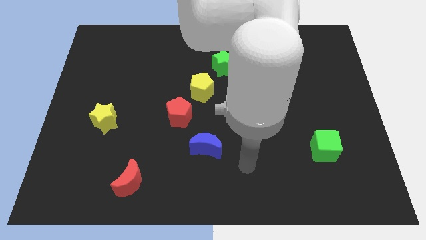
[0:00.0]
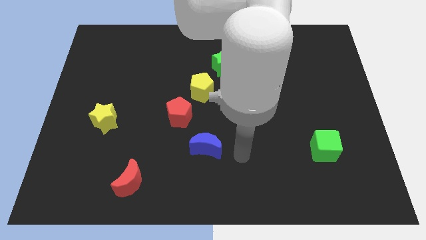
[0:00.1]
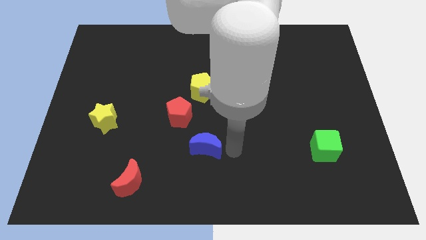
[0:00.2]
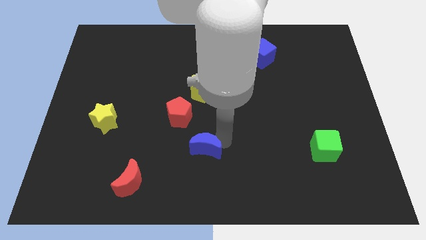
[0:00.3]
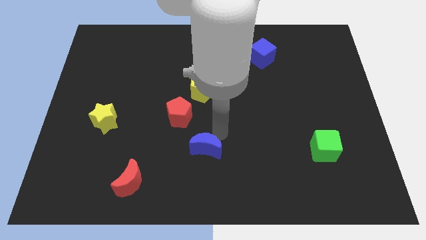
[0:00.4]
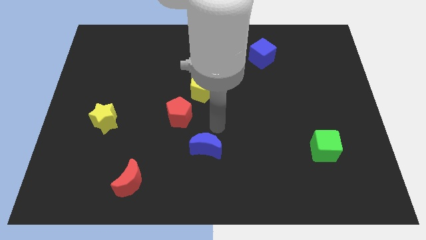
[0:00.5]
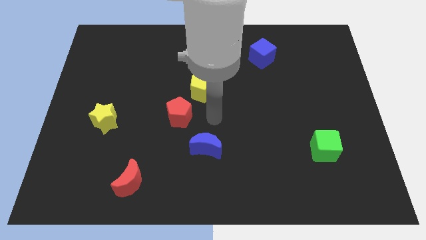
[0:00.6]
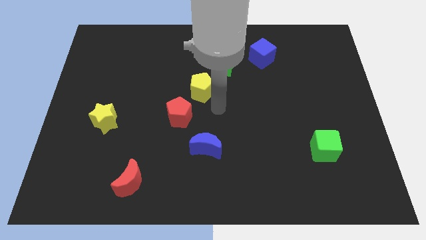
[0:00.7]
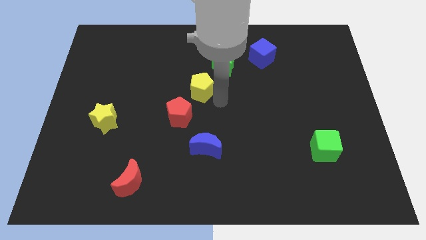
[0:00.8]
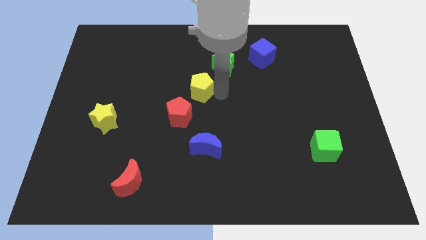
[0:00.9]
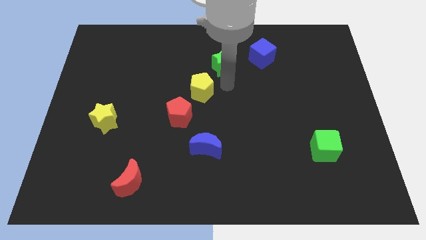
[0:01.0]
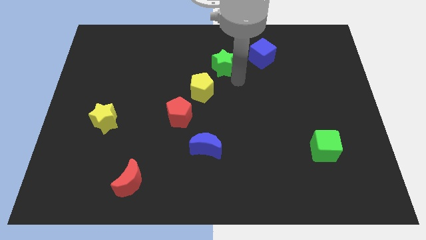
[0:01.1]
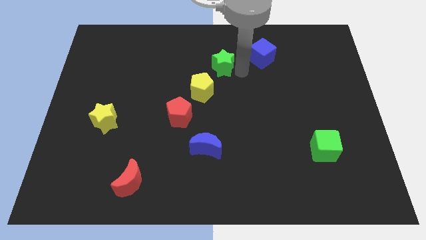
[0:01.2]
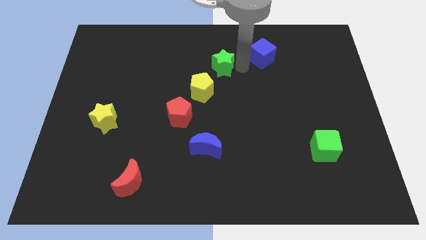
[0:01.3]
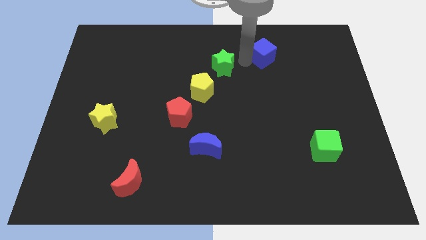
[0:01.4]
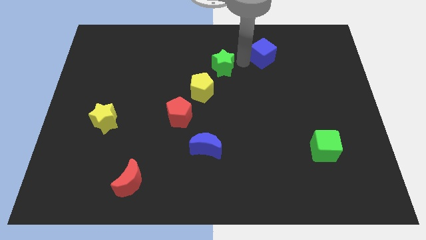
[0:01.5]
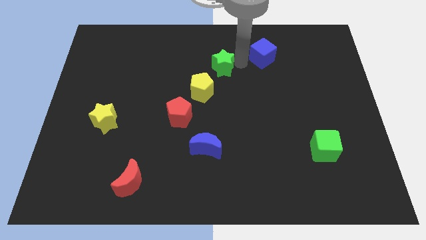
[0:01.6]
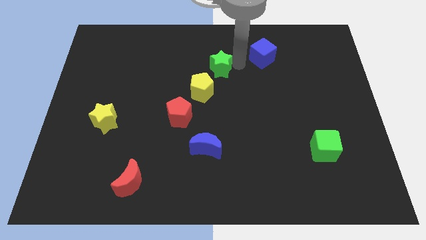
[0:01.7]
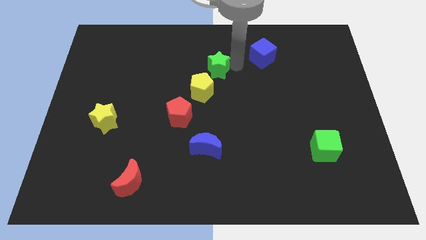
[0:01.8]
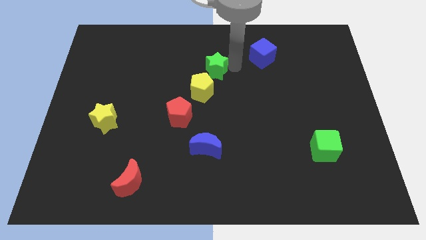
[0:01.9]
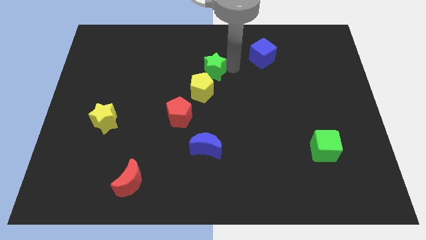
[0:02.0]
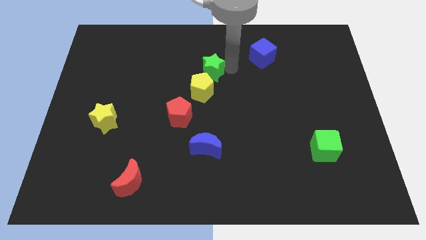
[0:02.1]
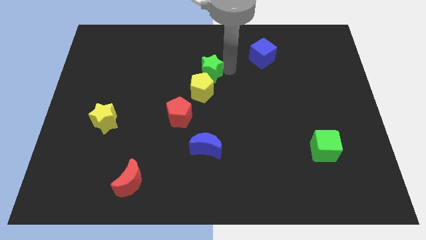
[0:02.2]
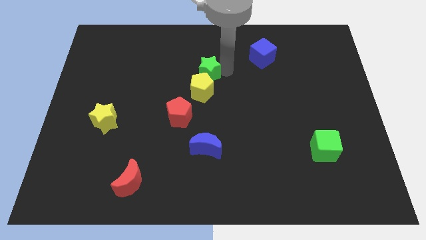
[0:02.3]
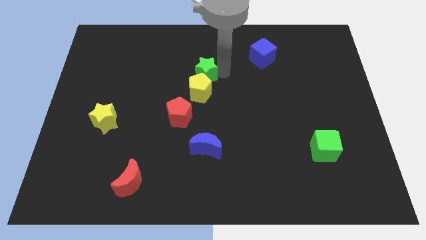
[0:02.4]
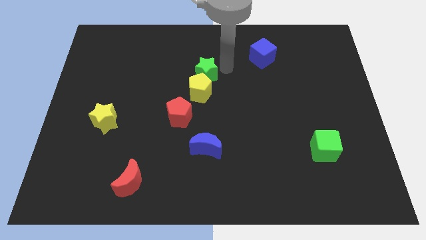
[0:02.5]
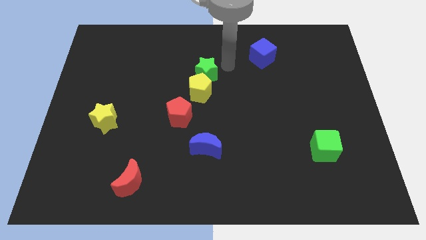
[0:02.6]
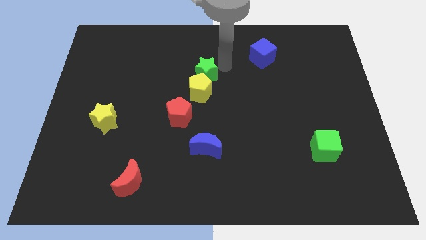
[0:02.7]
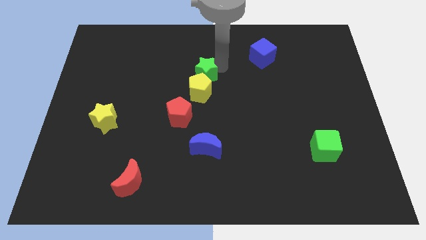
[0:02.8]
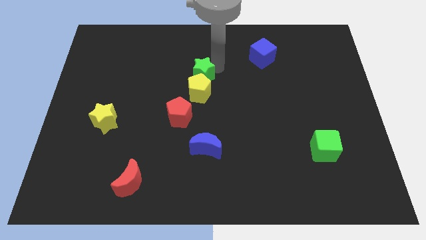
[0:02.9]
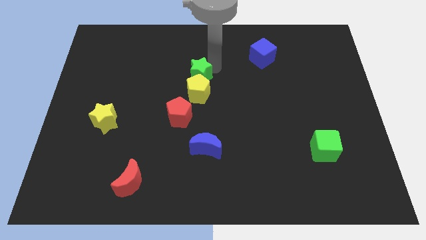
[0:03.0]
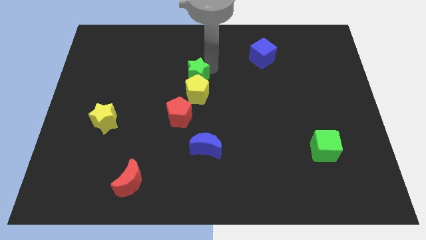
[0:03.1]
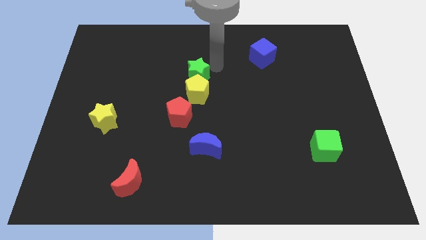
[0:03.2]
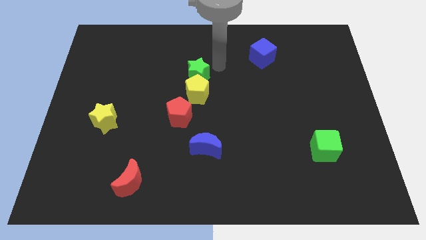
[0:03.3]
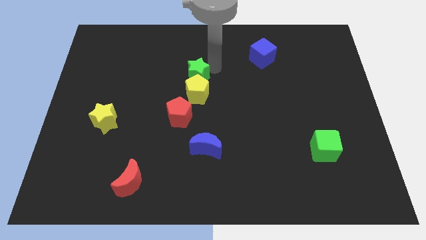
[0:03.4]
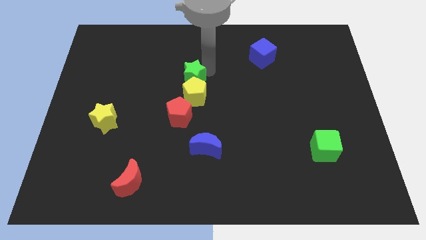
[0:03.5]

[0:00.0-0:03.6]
move the green star slightly down and to the left diagonally

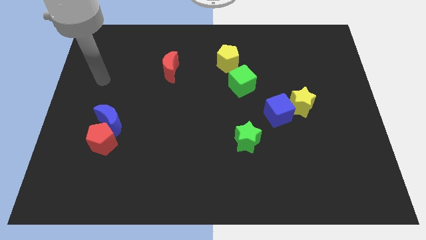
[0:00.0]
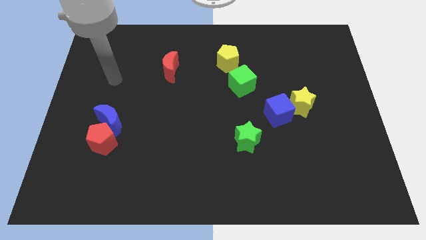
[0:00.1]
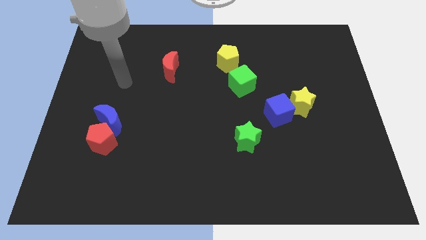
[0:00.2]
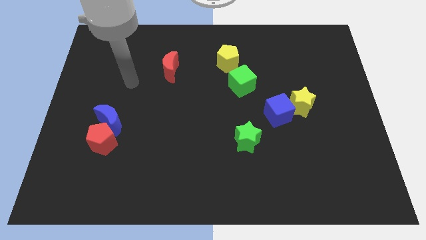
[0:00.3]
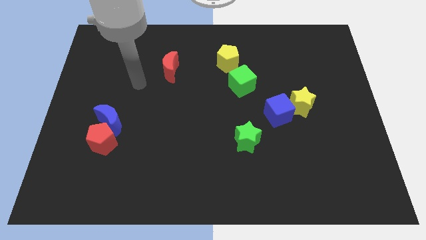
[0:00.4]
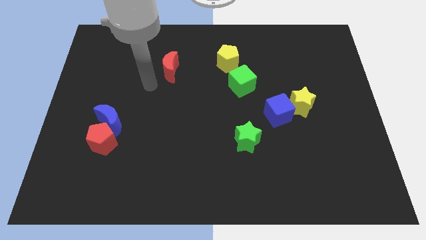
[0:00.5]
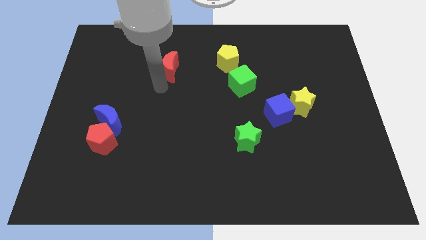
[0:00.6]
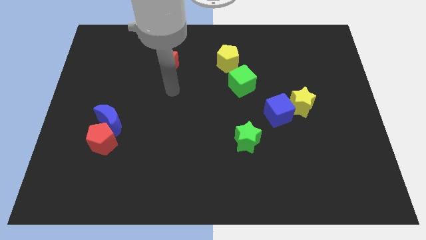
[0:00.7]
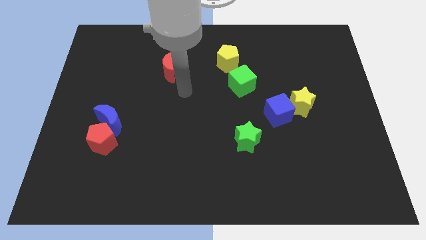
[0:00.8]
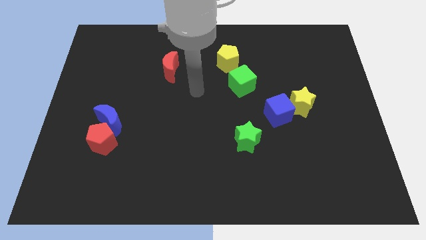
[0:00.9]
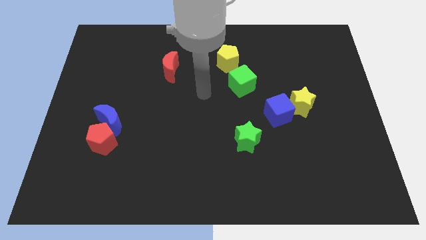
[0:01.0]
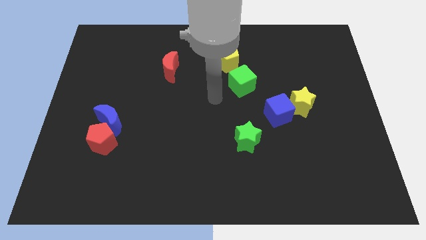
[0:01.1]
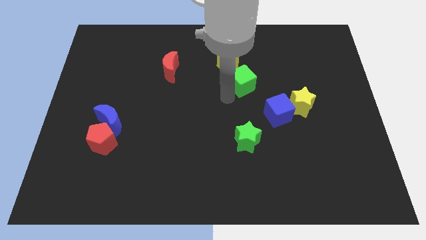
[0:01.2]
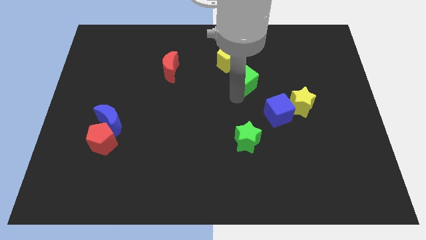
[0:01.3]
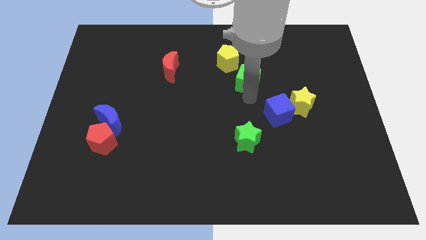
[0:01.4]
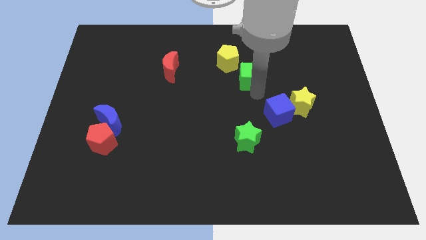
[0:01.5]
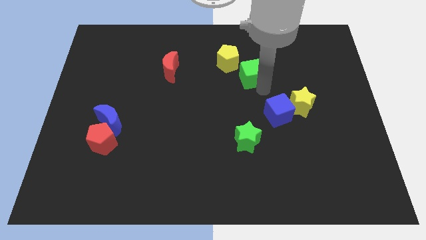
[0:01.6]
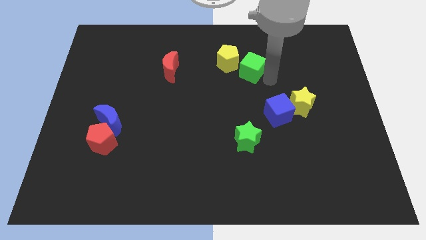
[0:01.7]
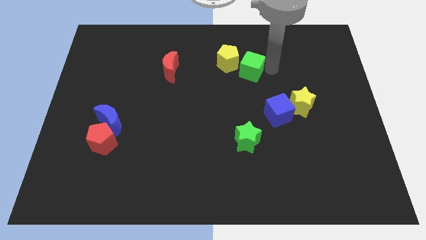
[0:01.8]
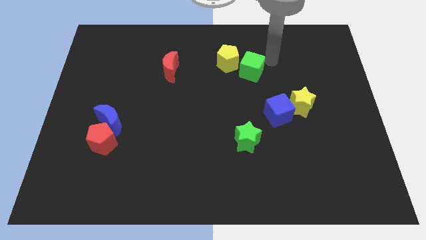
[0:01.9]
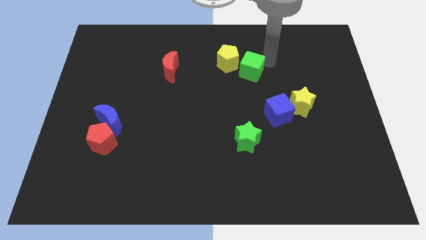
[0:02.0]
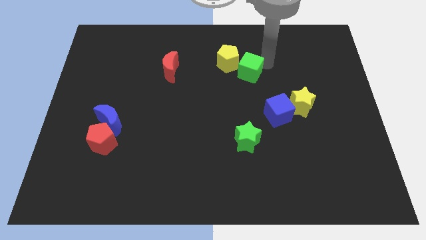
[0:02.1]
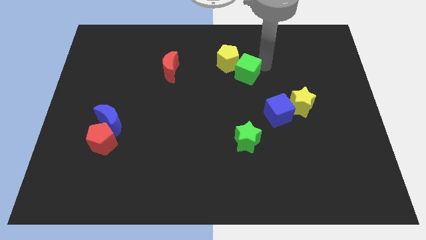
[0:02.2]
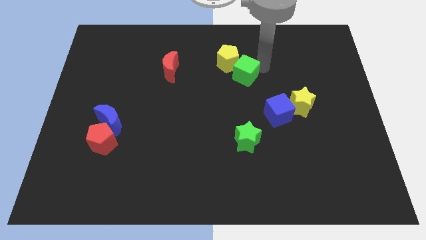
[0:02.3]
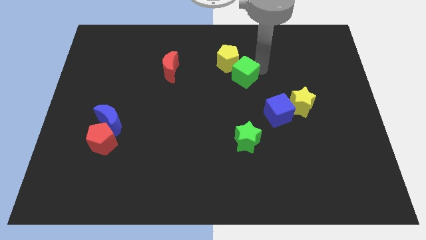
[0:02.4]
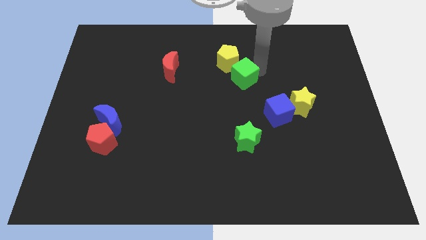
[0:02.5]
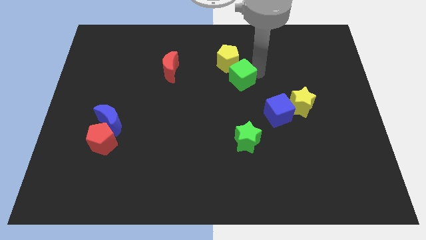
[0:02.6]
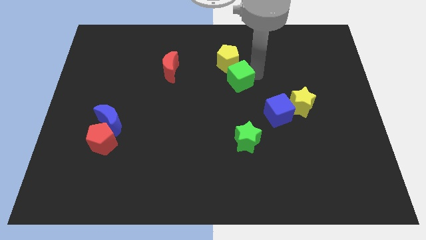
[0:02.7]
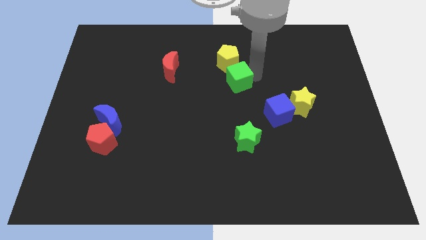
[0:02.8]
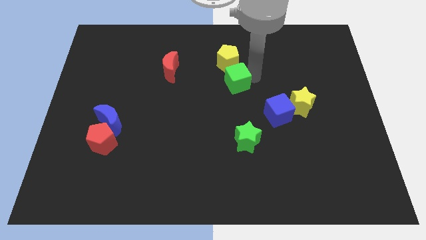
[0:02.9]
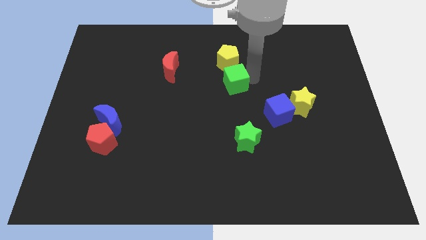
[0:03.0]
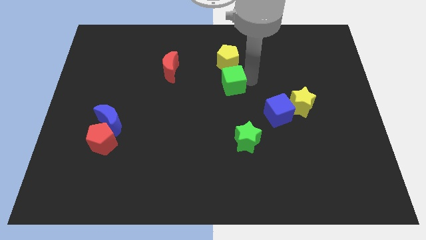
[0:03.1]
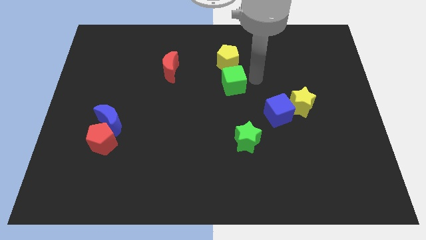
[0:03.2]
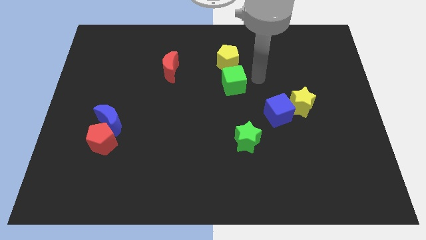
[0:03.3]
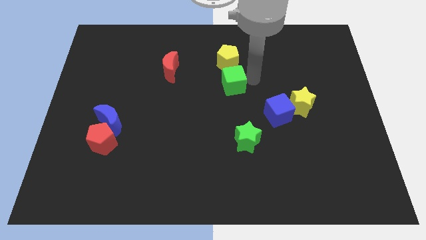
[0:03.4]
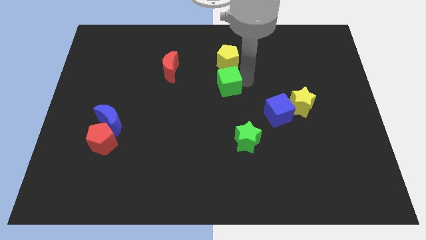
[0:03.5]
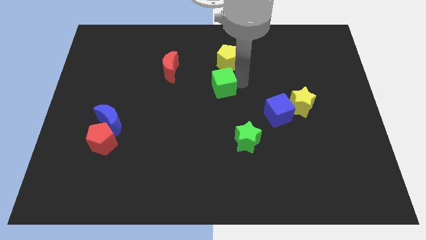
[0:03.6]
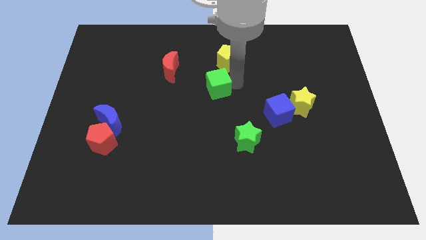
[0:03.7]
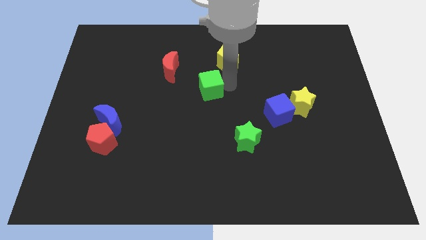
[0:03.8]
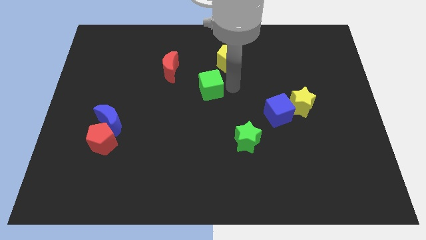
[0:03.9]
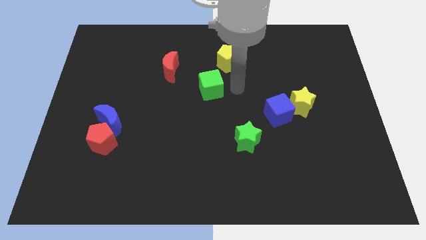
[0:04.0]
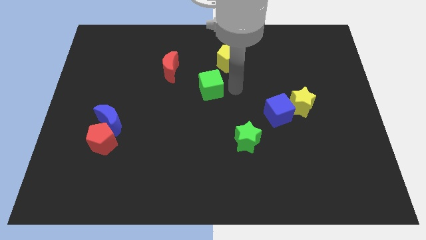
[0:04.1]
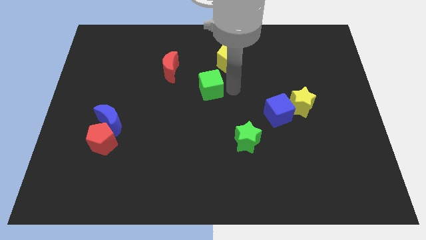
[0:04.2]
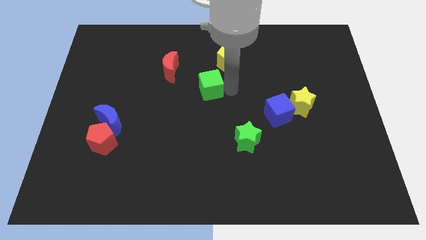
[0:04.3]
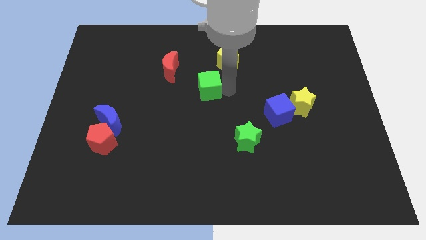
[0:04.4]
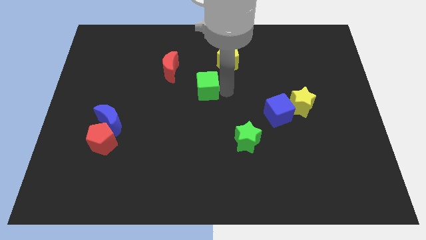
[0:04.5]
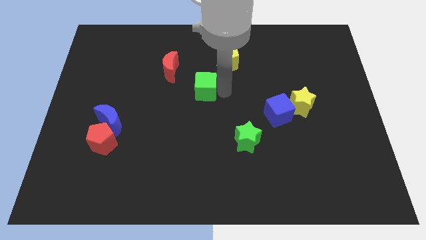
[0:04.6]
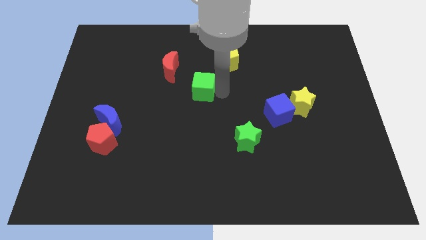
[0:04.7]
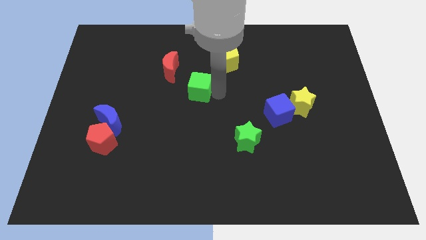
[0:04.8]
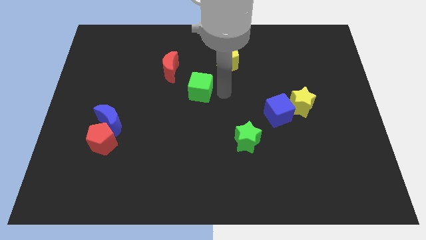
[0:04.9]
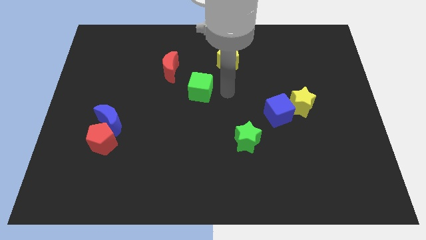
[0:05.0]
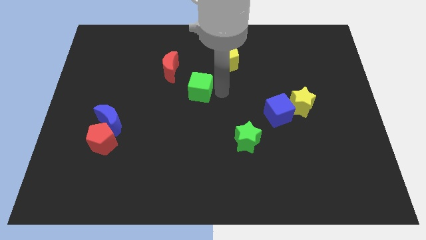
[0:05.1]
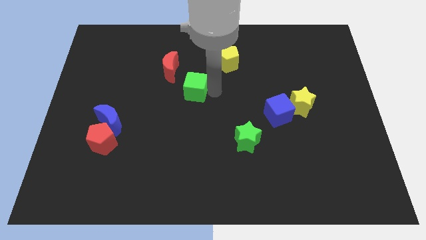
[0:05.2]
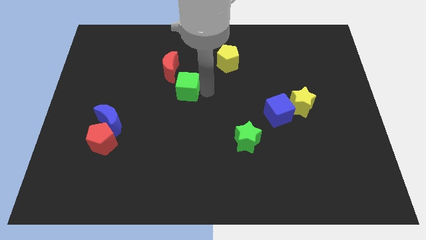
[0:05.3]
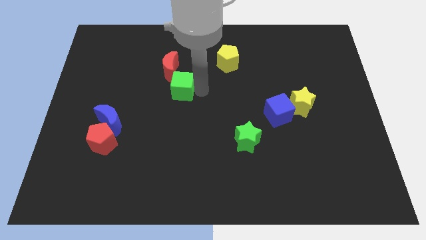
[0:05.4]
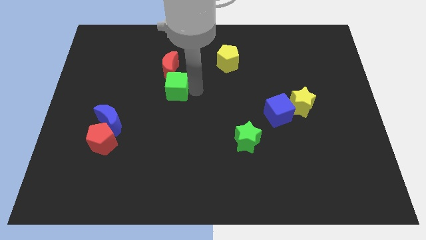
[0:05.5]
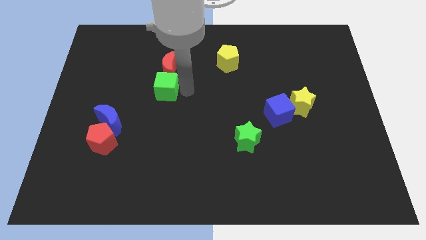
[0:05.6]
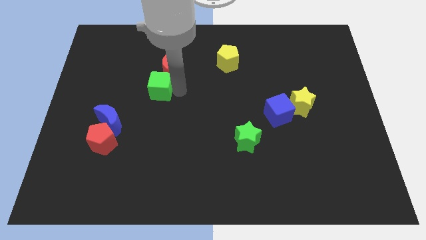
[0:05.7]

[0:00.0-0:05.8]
push the green cube left
